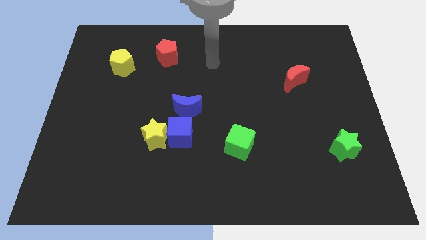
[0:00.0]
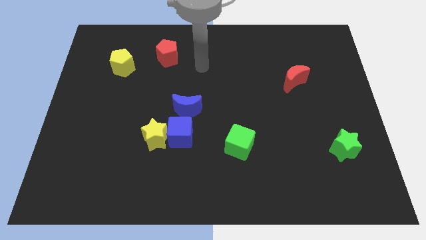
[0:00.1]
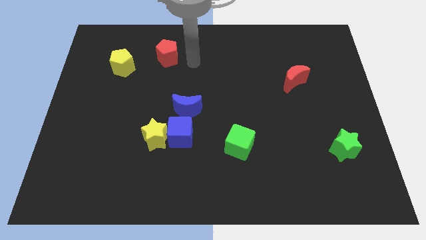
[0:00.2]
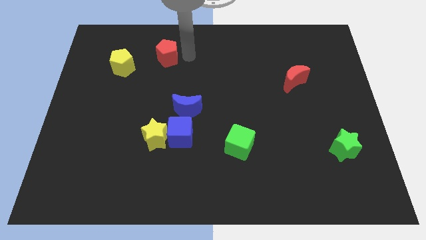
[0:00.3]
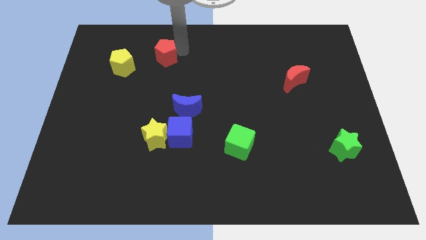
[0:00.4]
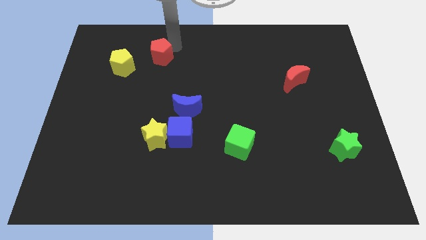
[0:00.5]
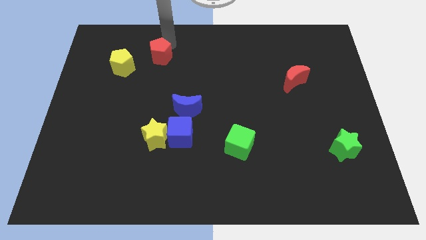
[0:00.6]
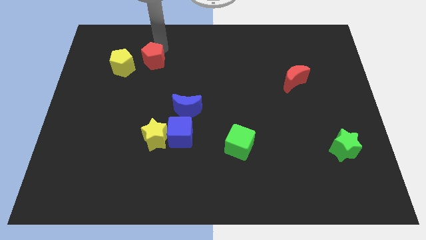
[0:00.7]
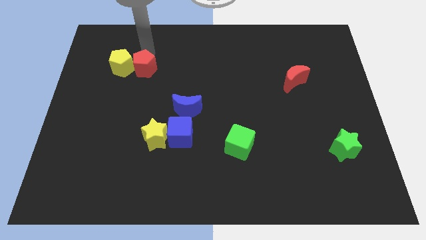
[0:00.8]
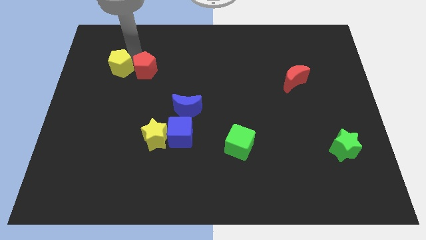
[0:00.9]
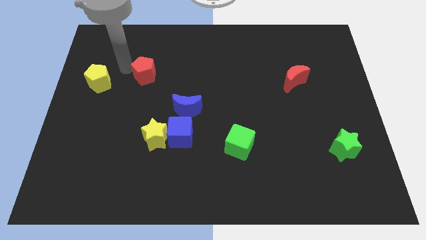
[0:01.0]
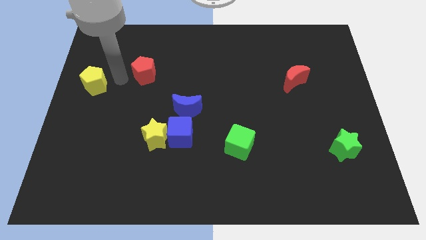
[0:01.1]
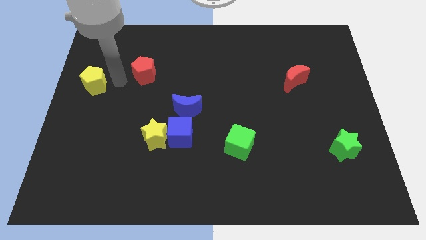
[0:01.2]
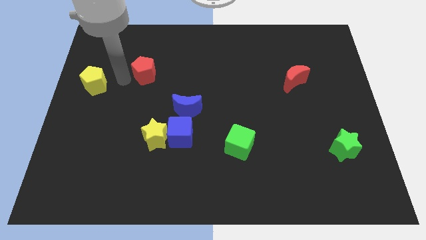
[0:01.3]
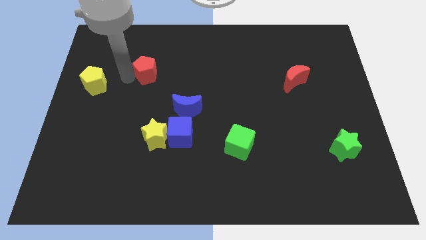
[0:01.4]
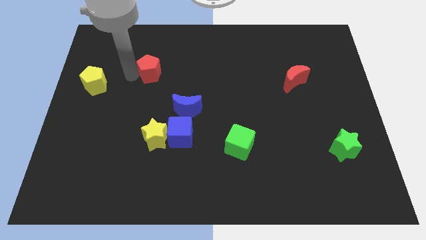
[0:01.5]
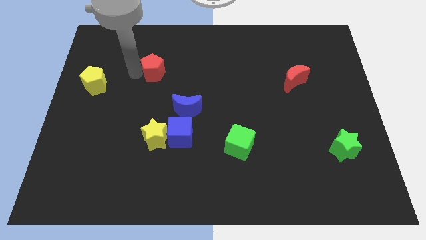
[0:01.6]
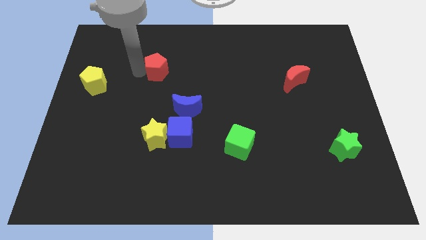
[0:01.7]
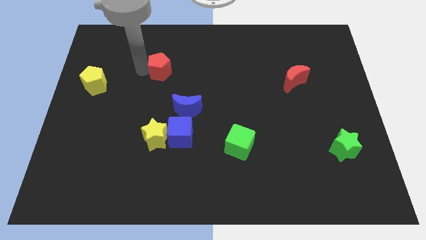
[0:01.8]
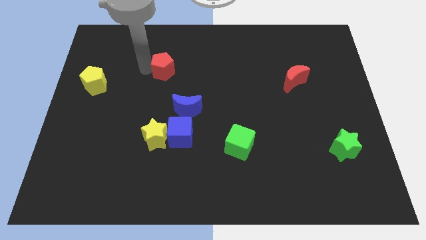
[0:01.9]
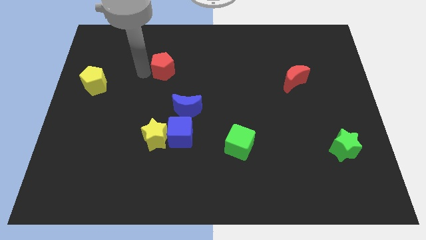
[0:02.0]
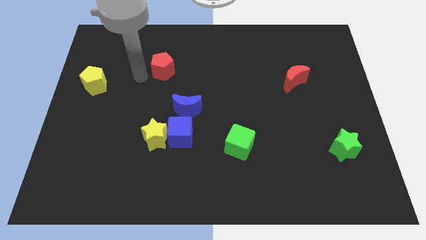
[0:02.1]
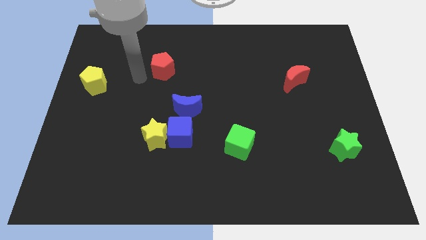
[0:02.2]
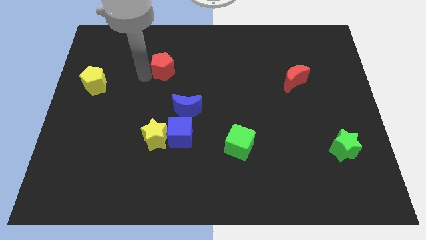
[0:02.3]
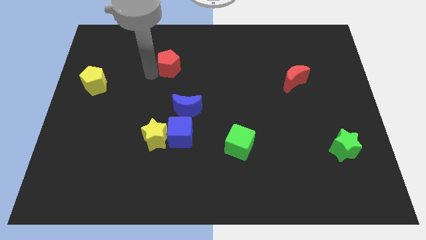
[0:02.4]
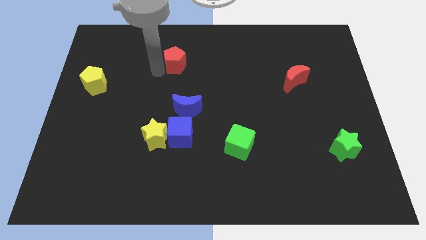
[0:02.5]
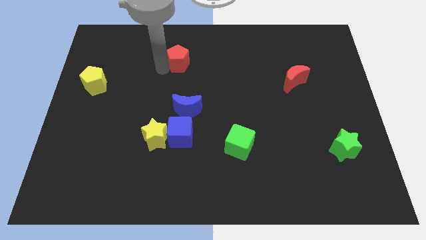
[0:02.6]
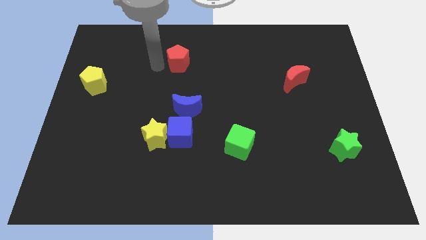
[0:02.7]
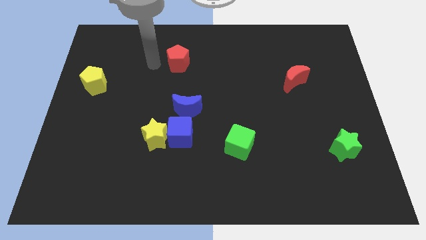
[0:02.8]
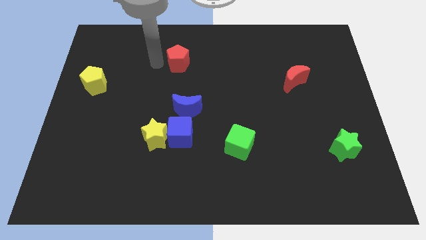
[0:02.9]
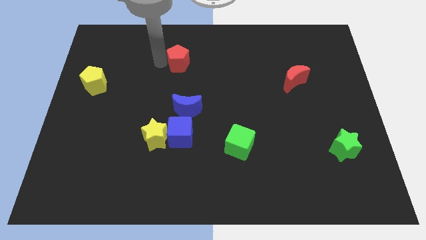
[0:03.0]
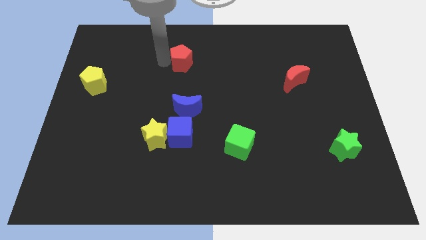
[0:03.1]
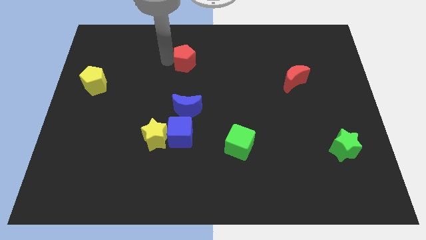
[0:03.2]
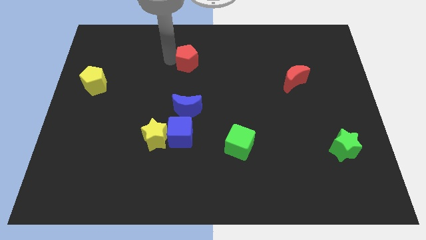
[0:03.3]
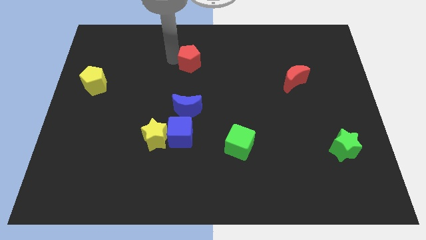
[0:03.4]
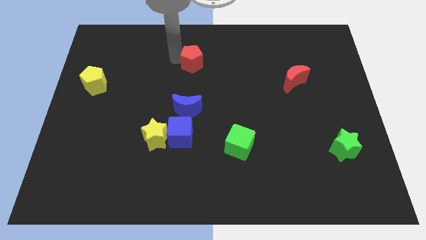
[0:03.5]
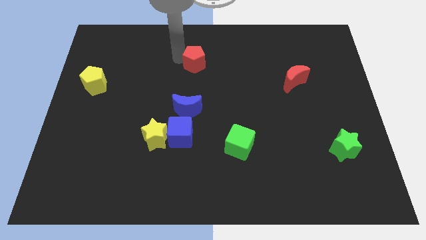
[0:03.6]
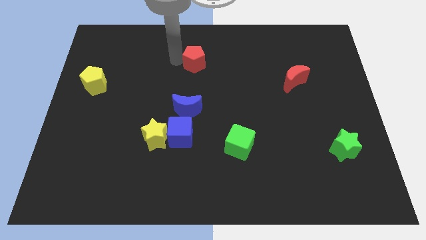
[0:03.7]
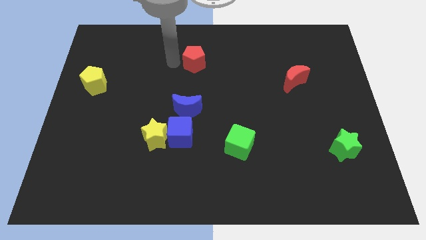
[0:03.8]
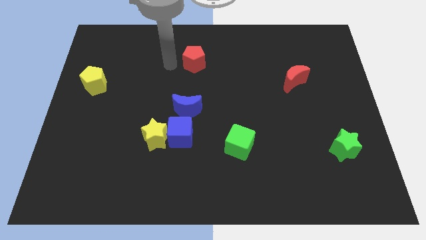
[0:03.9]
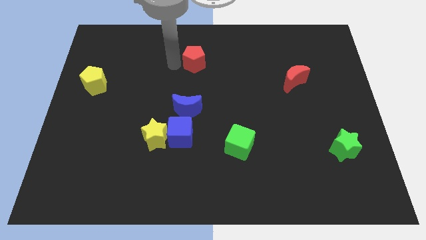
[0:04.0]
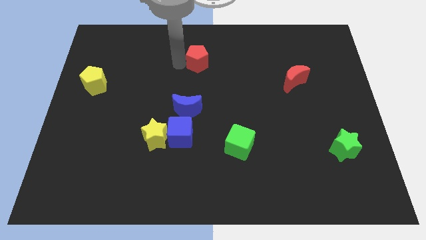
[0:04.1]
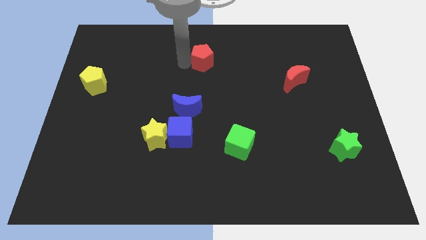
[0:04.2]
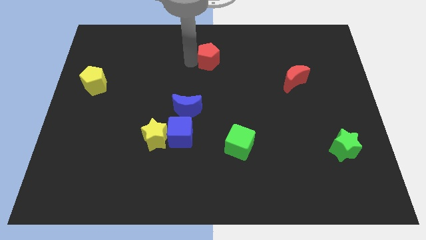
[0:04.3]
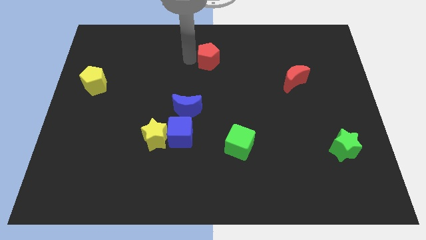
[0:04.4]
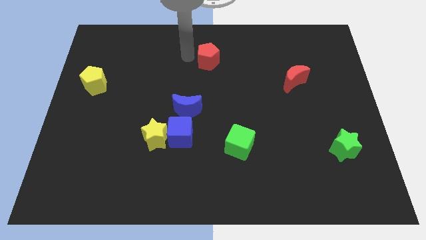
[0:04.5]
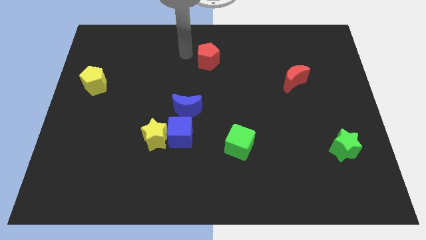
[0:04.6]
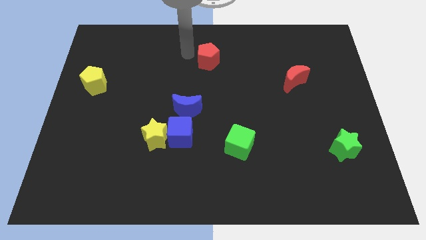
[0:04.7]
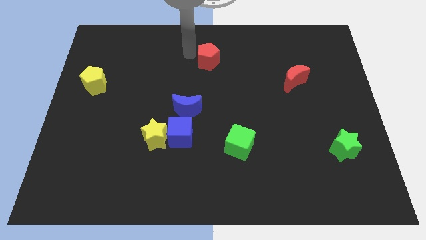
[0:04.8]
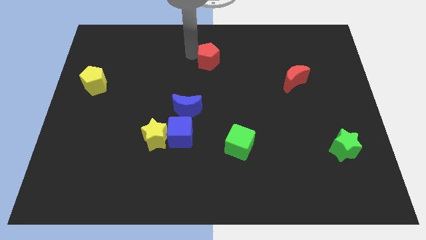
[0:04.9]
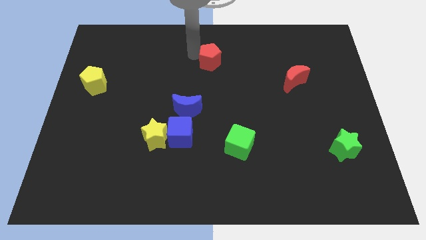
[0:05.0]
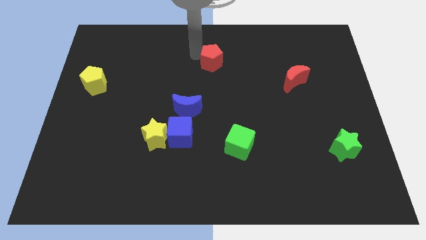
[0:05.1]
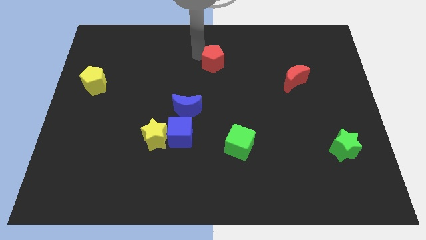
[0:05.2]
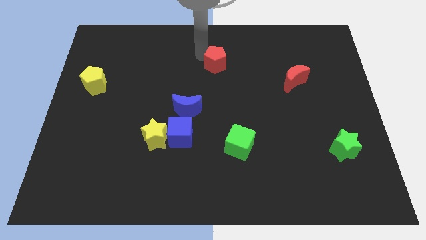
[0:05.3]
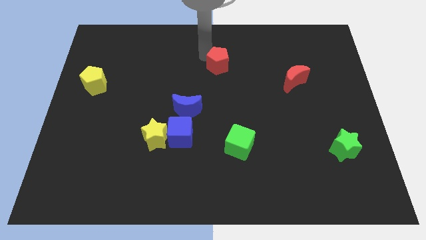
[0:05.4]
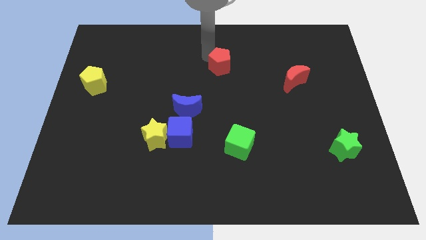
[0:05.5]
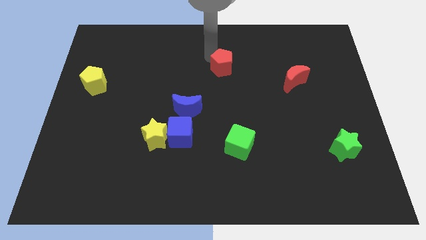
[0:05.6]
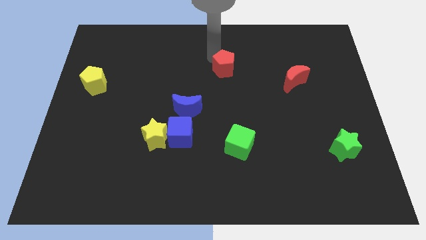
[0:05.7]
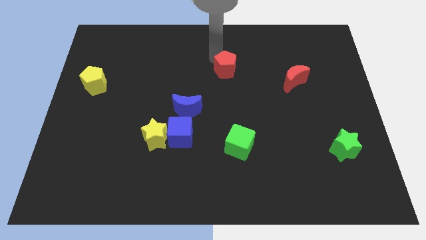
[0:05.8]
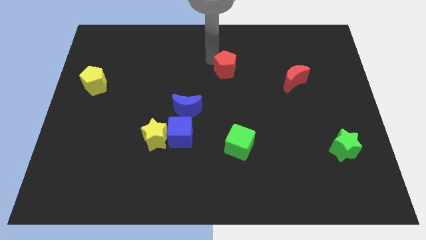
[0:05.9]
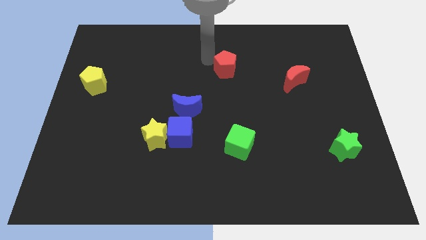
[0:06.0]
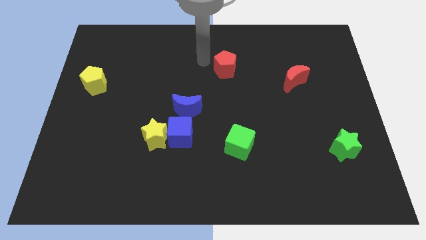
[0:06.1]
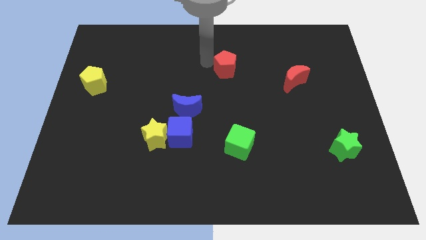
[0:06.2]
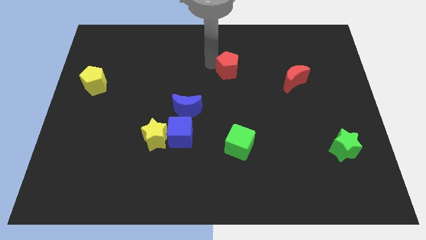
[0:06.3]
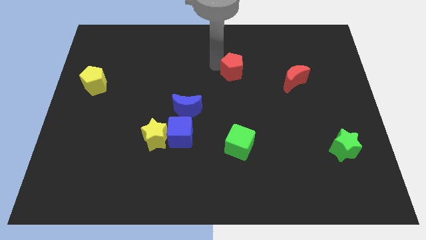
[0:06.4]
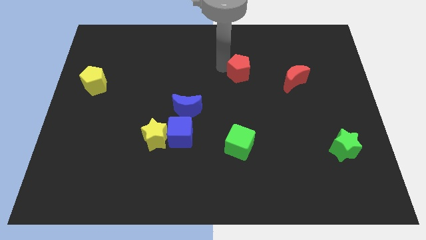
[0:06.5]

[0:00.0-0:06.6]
slide the red pentagon to the left of the red moon
